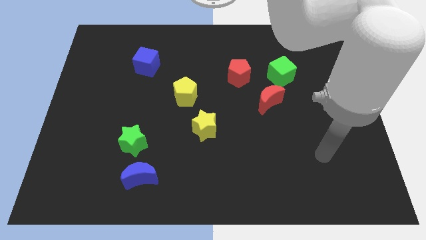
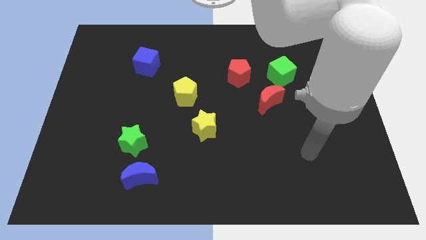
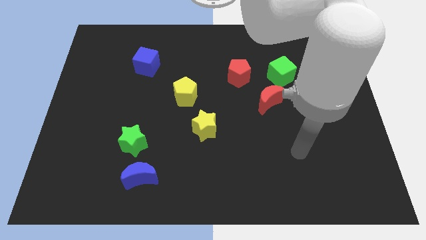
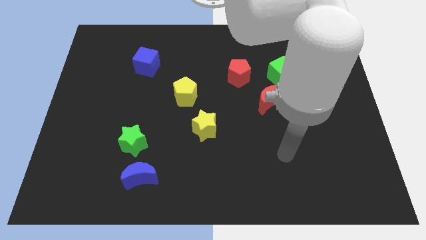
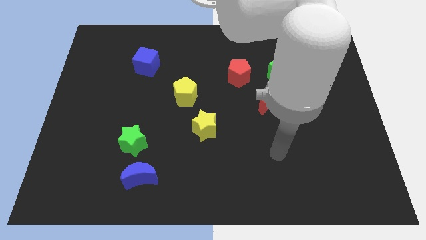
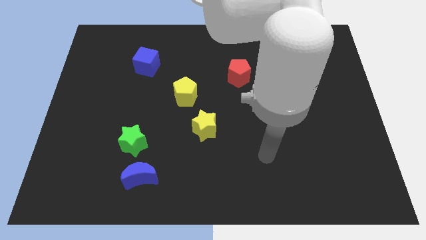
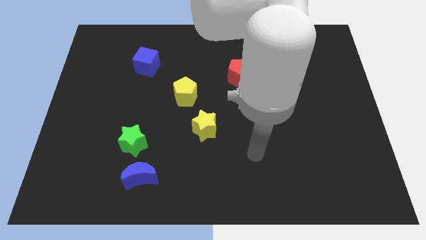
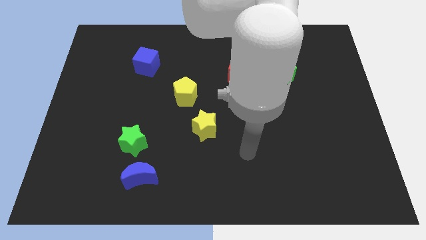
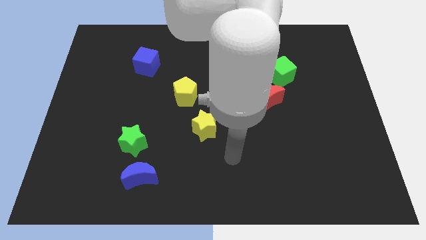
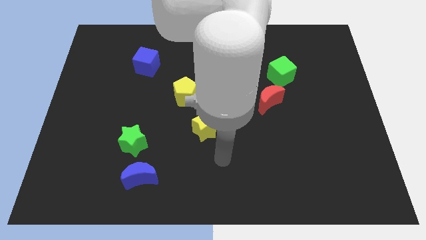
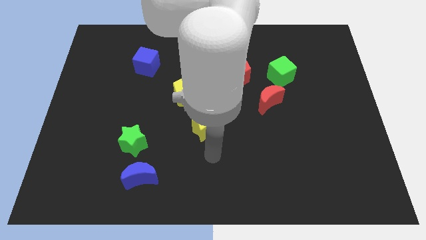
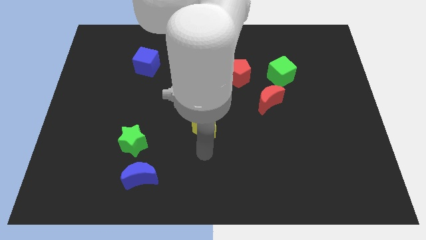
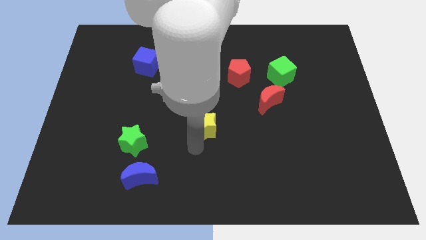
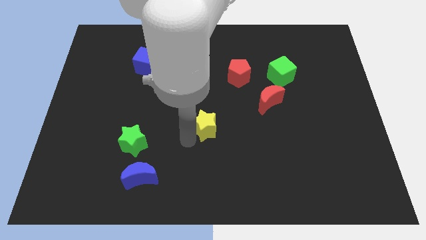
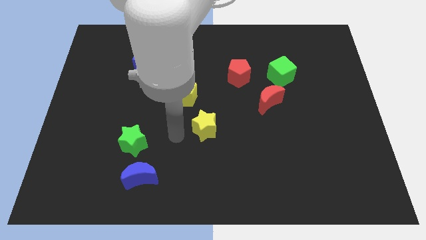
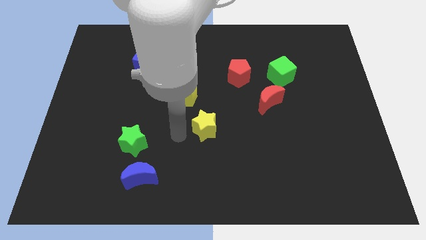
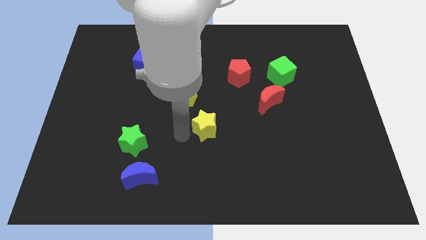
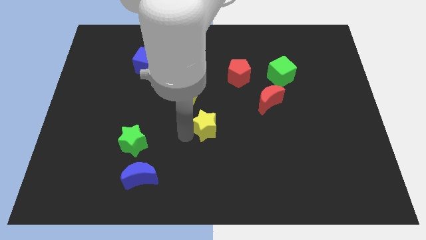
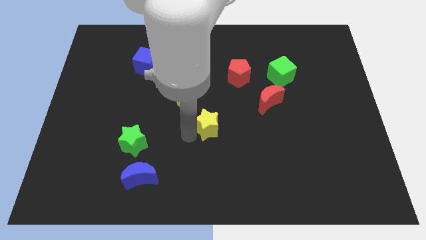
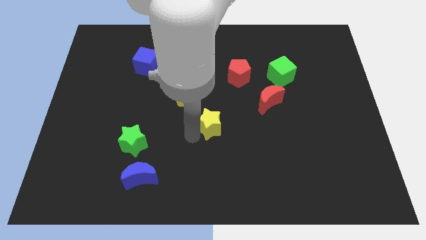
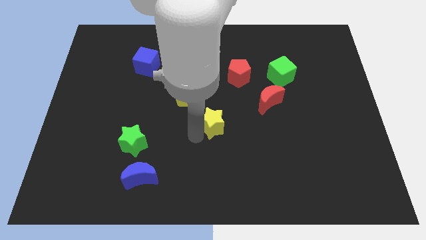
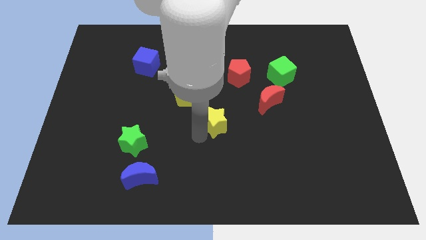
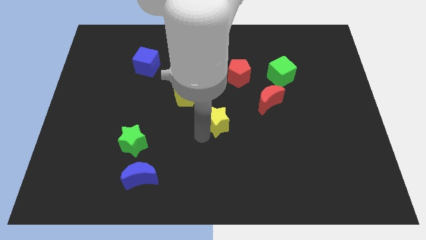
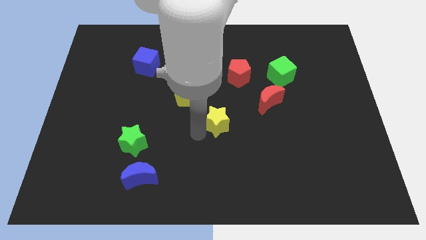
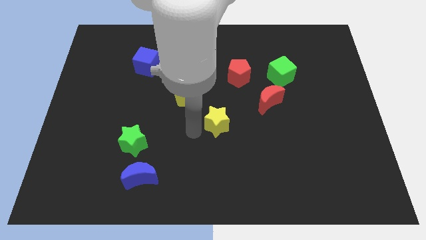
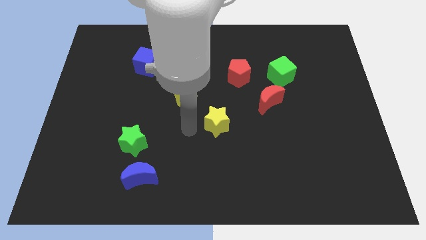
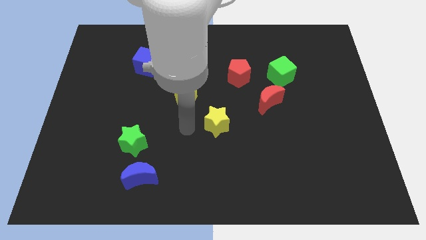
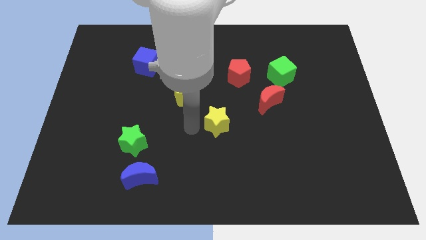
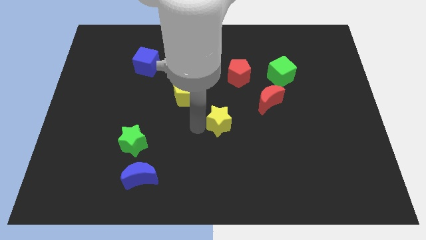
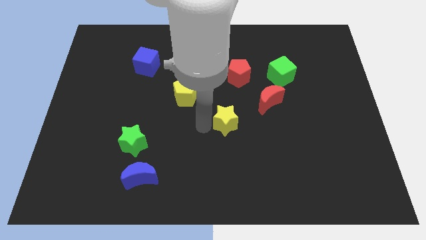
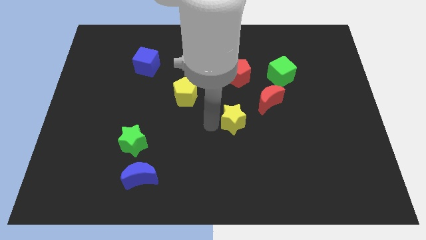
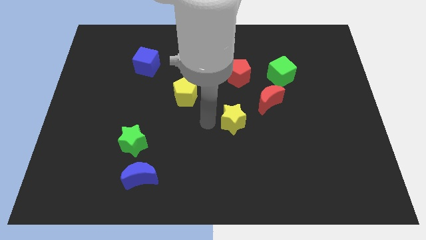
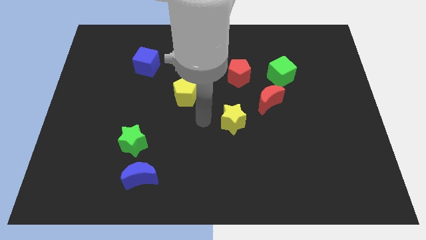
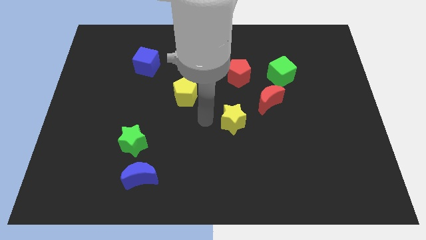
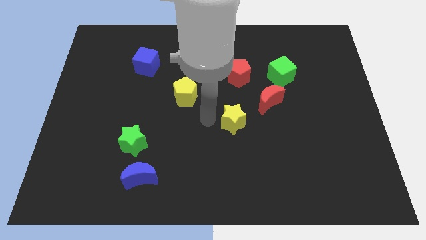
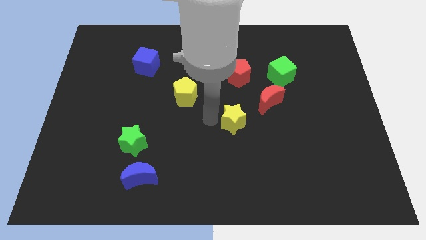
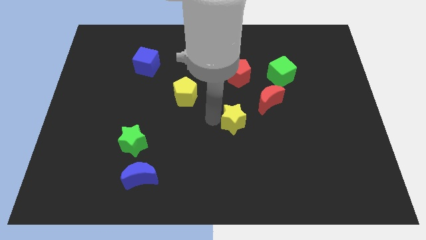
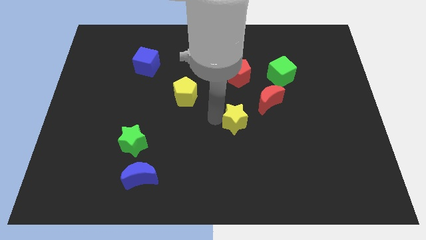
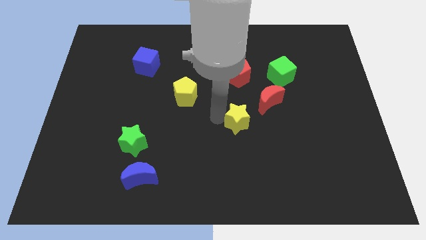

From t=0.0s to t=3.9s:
slide the yellow star to the right somewhat

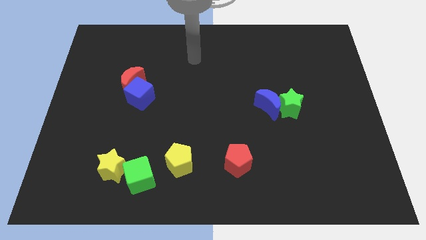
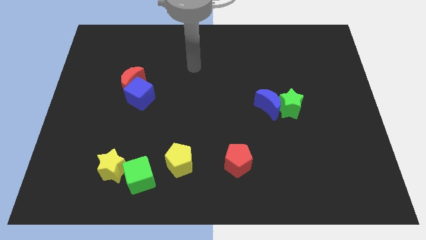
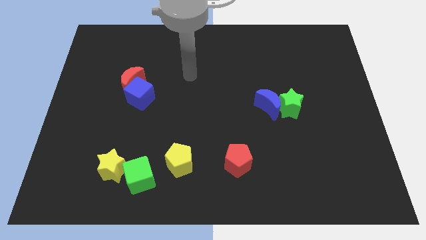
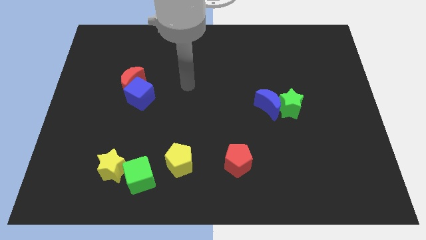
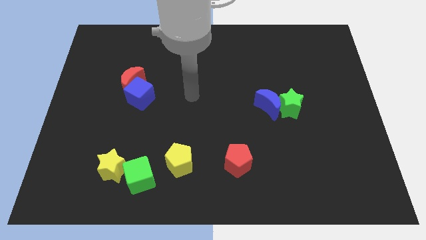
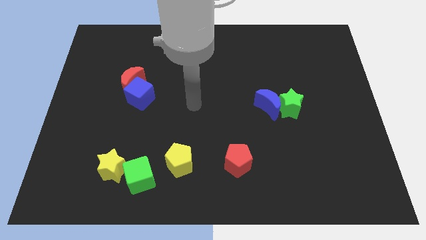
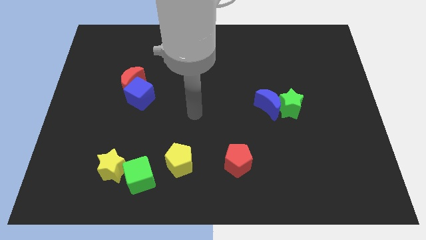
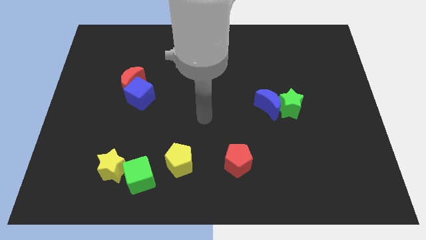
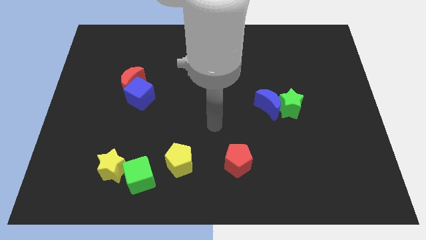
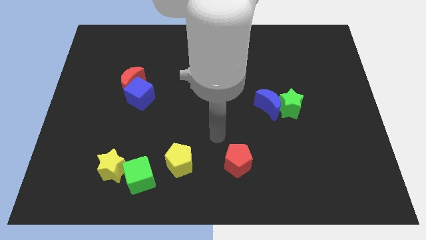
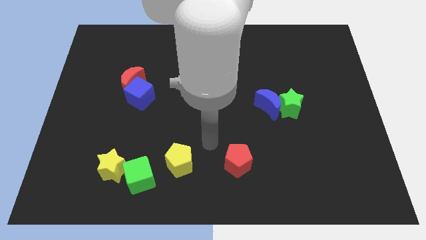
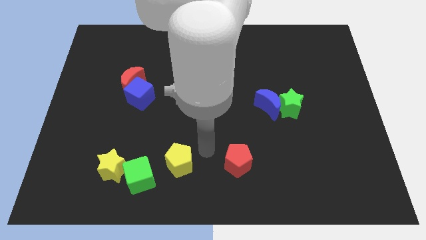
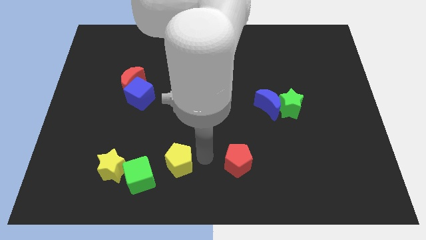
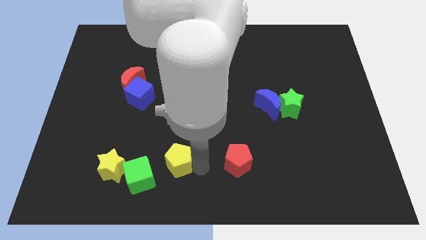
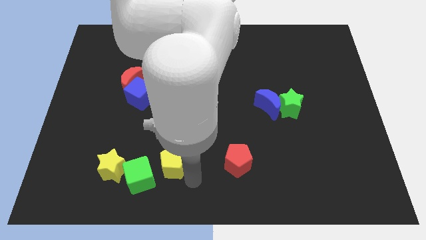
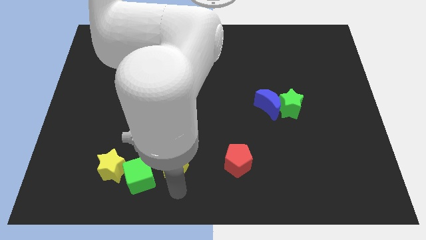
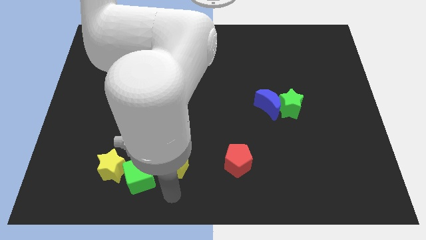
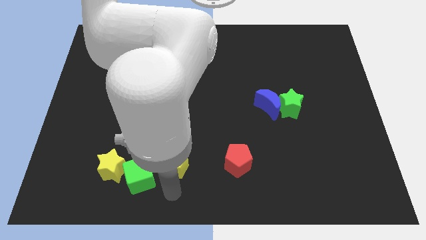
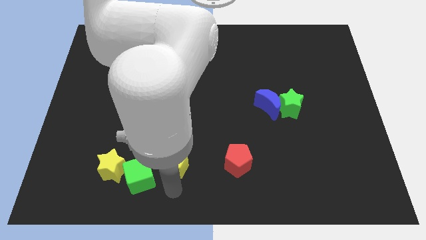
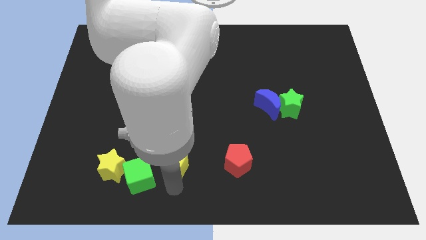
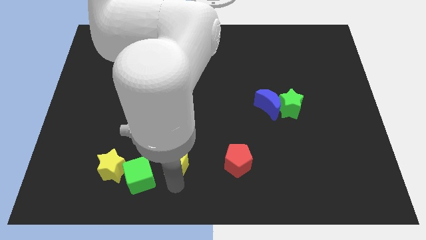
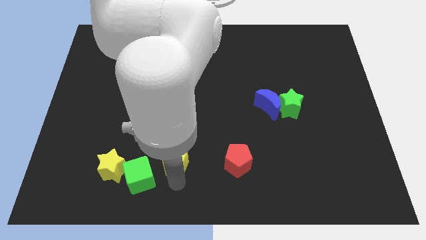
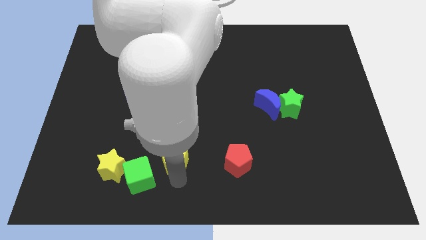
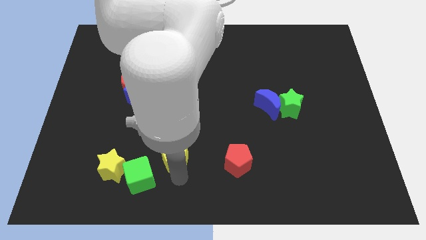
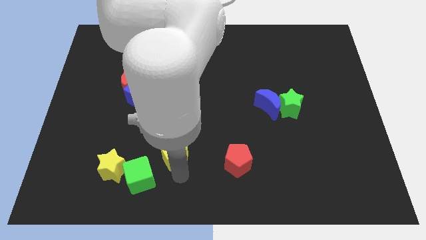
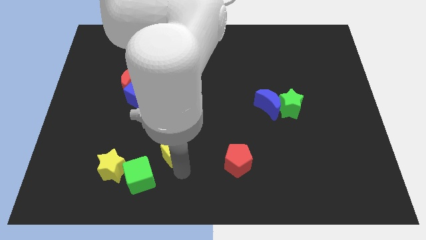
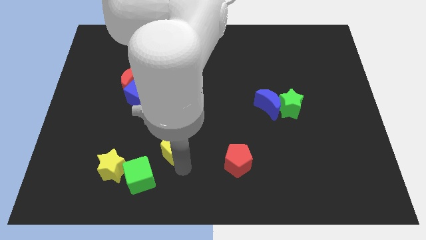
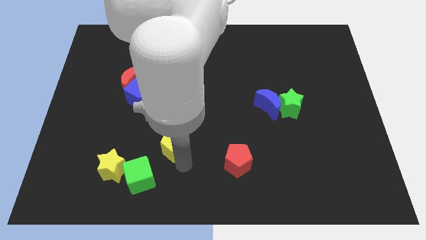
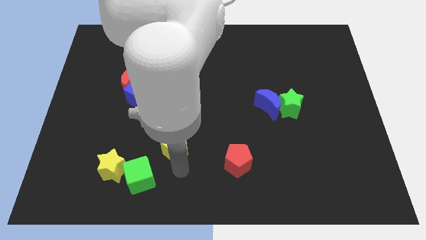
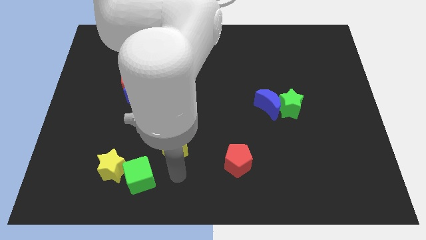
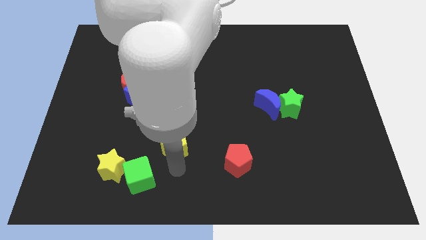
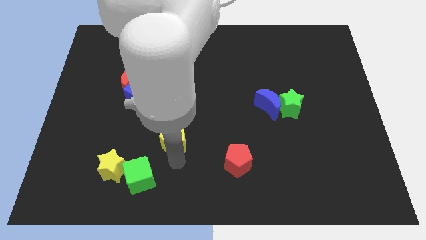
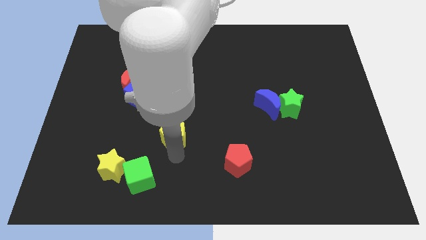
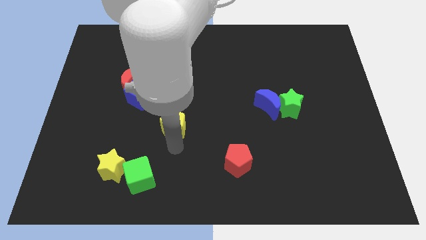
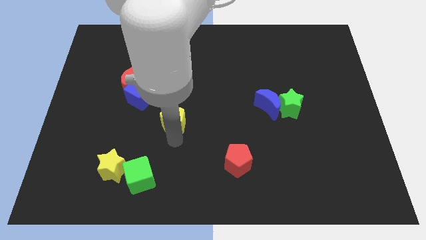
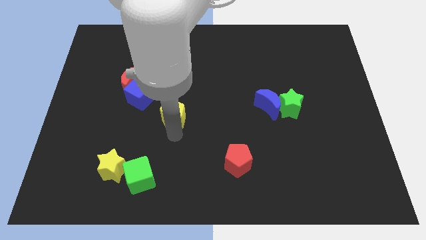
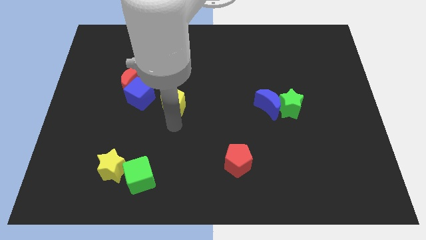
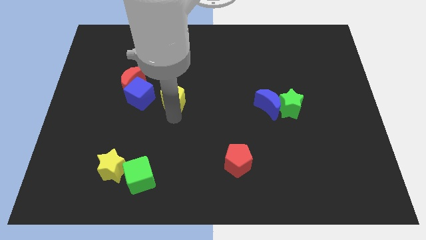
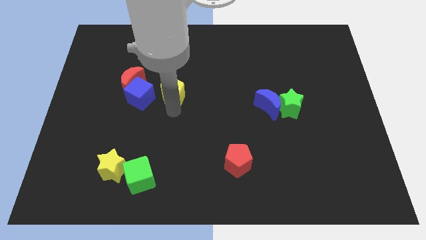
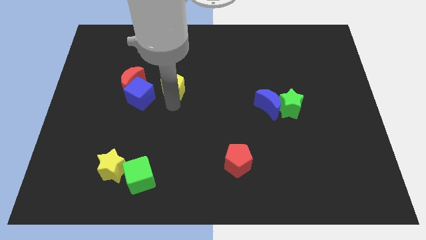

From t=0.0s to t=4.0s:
slide the yellow pentagon up

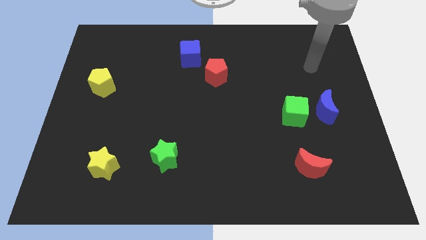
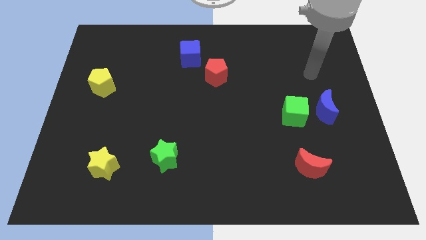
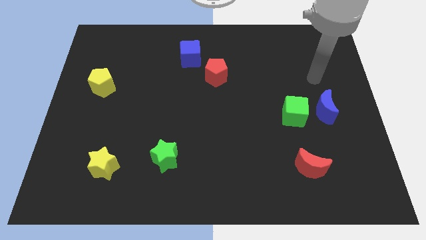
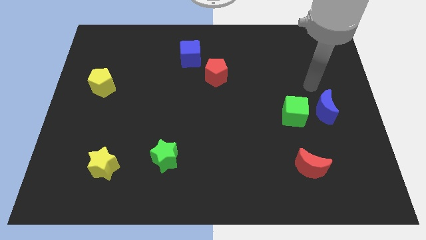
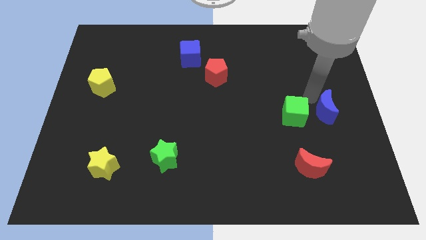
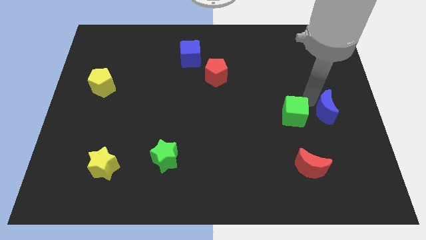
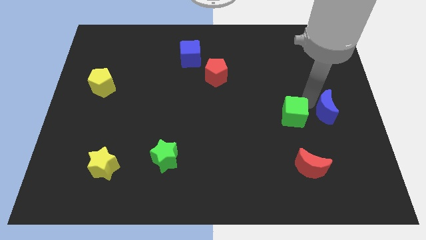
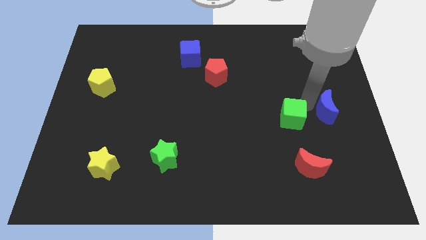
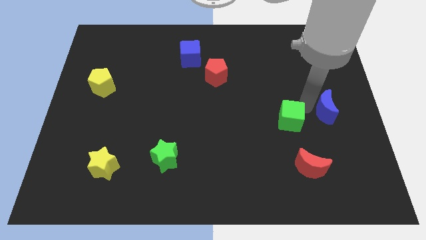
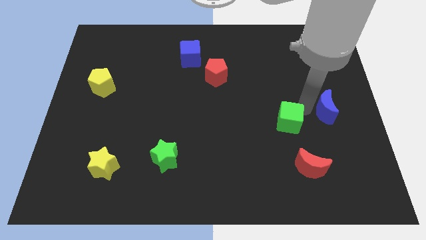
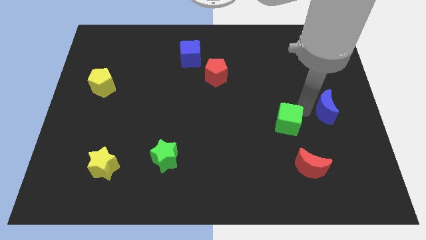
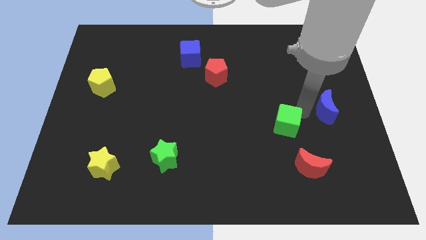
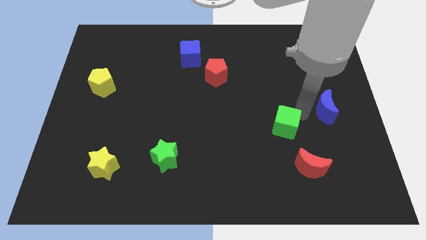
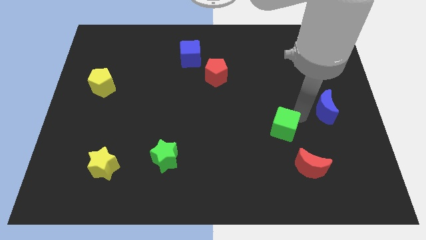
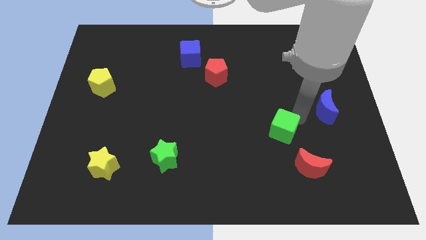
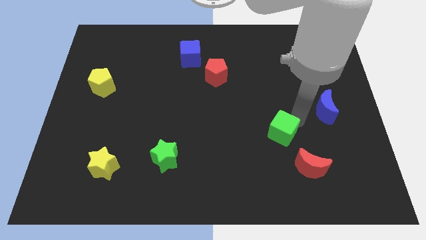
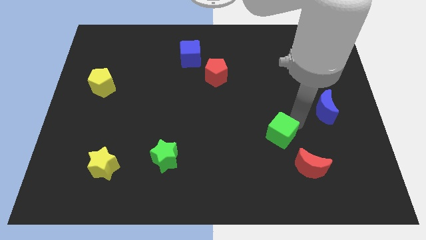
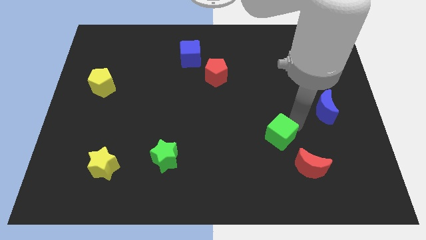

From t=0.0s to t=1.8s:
slightly slide the green cube downwards and left diagonally
